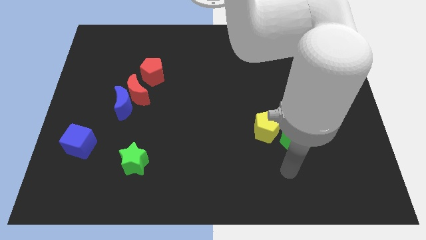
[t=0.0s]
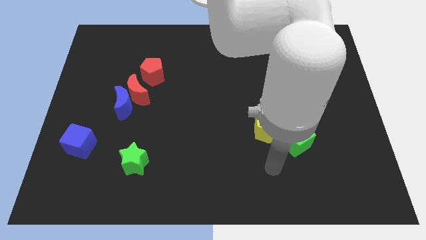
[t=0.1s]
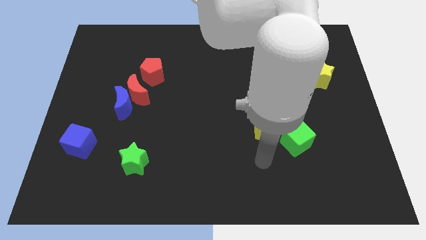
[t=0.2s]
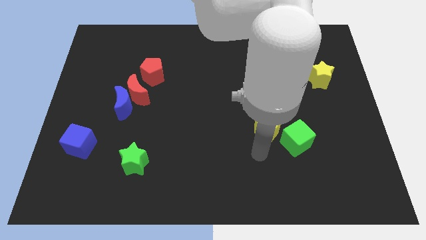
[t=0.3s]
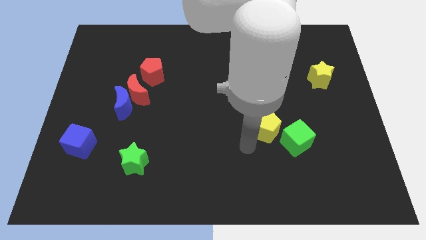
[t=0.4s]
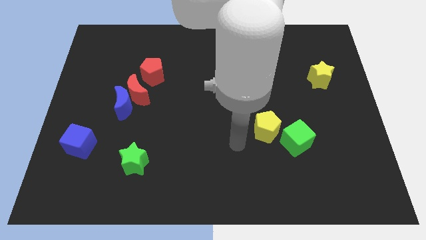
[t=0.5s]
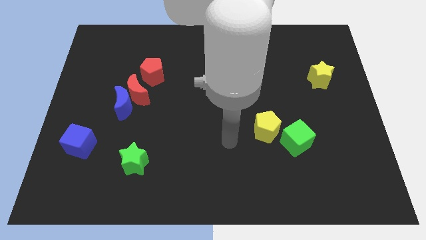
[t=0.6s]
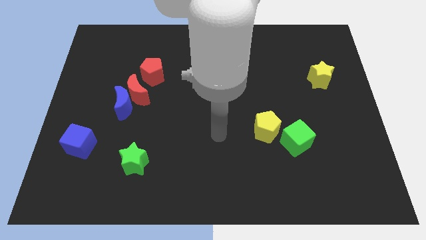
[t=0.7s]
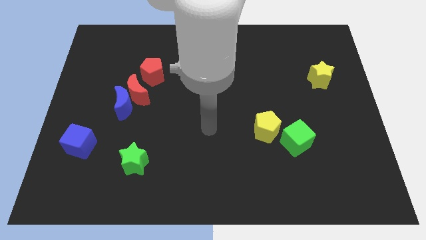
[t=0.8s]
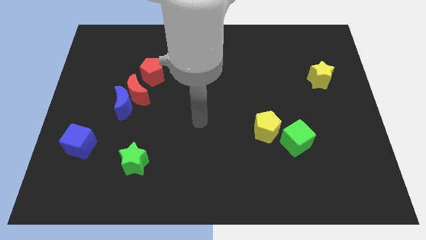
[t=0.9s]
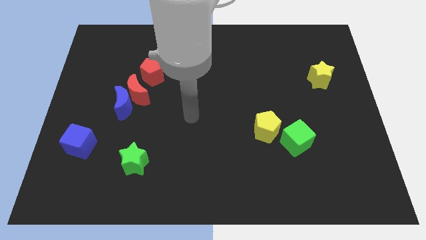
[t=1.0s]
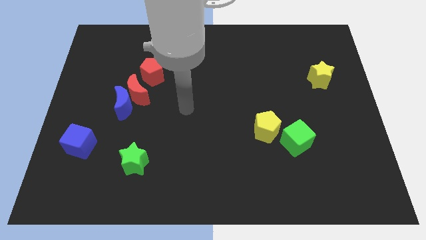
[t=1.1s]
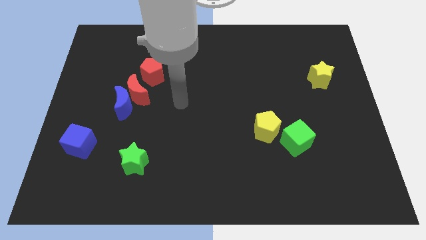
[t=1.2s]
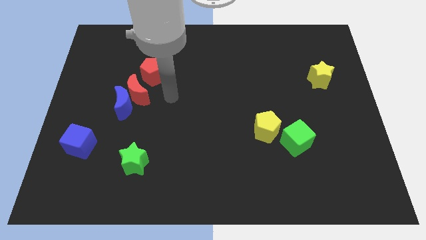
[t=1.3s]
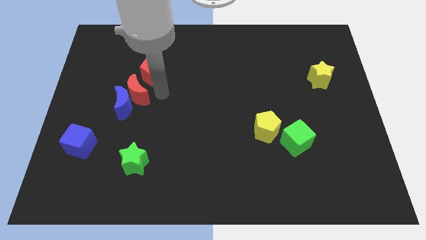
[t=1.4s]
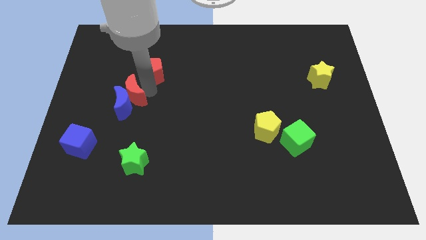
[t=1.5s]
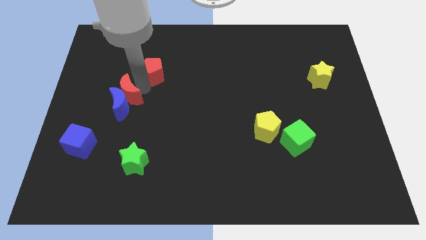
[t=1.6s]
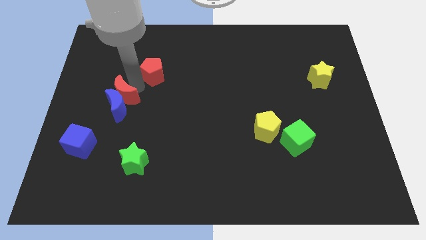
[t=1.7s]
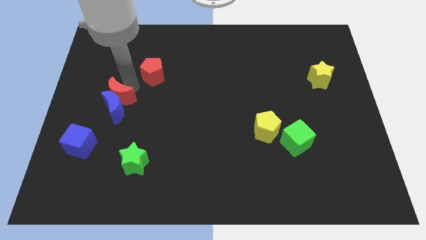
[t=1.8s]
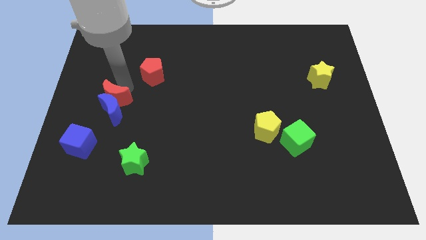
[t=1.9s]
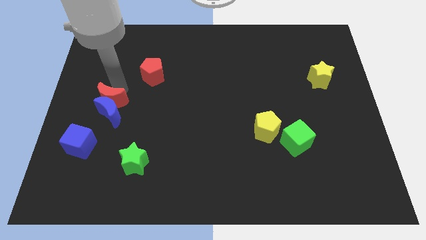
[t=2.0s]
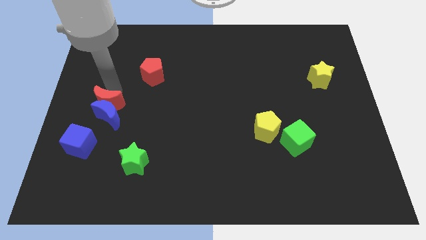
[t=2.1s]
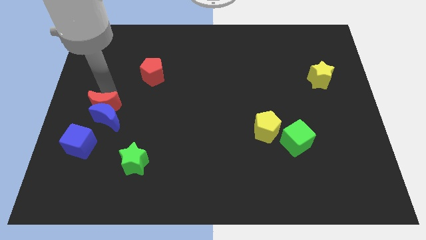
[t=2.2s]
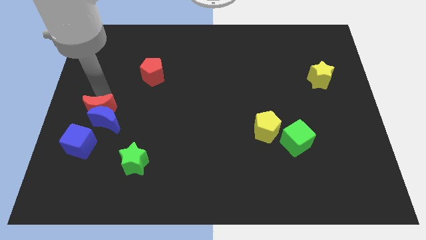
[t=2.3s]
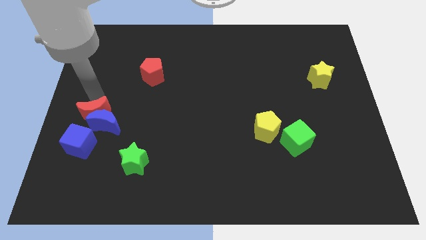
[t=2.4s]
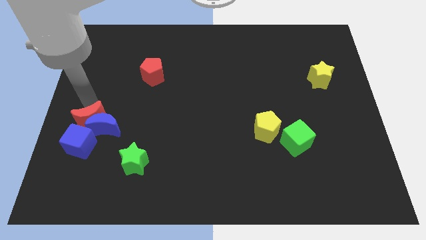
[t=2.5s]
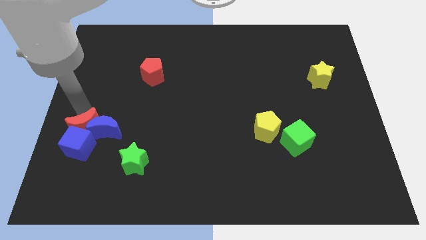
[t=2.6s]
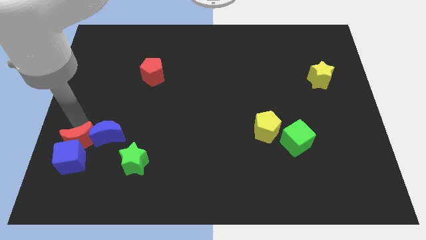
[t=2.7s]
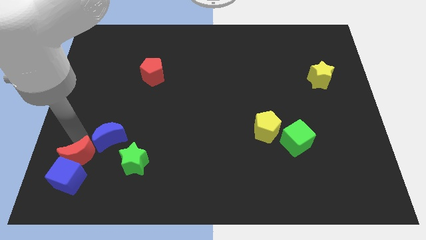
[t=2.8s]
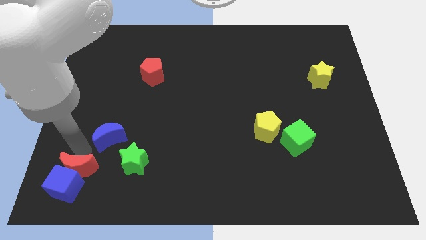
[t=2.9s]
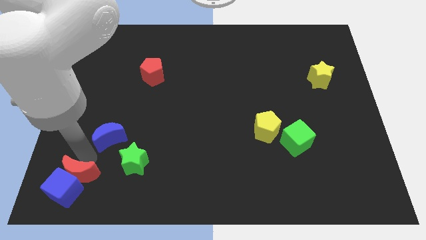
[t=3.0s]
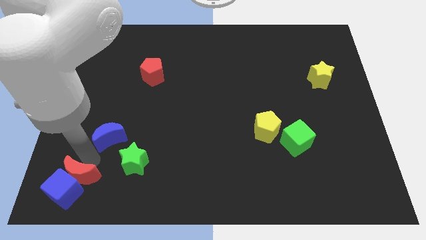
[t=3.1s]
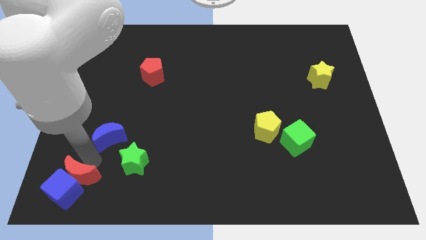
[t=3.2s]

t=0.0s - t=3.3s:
move the blue moon away from the red moon

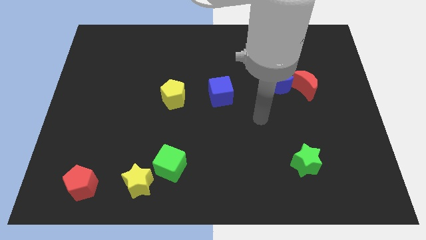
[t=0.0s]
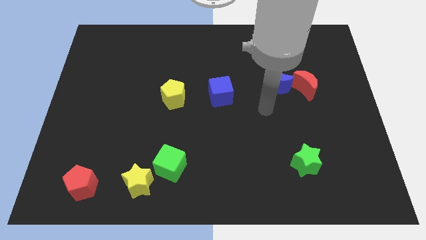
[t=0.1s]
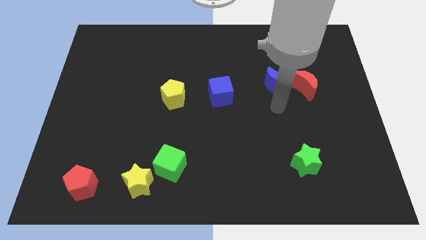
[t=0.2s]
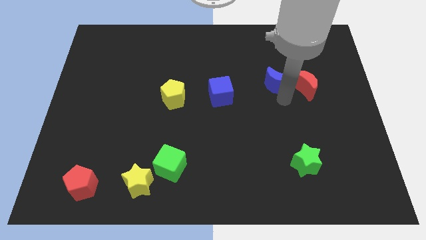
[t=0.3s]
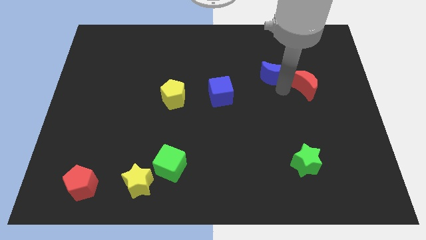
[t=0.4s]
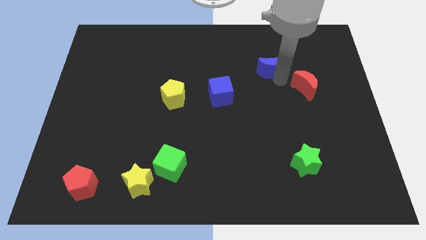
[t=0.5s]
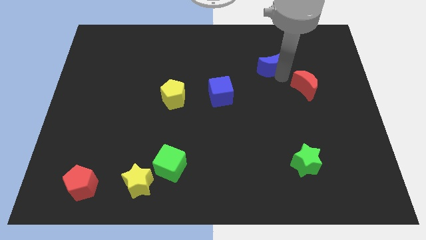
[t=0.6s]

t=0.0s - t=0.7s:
move the red moon away from the blue moon

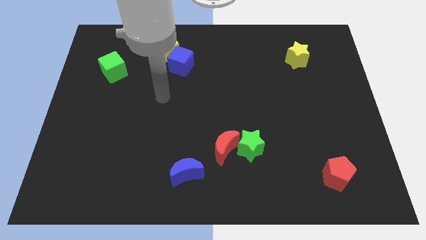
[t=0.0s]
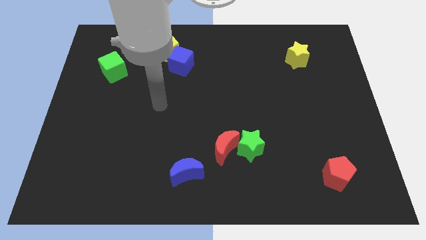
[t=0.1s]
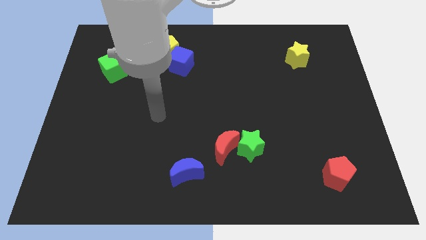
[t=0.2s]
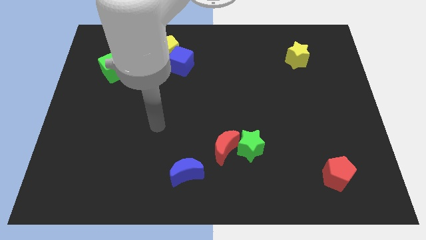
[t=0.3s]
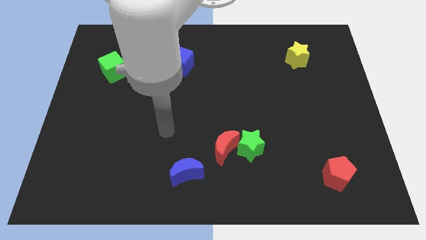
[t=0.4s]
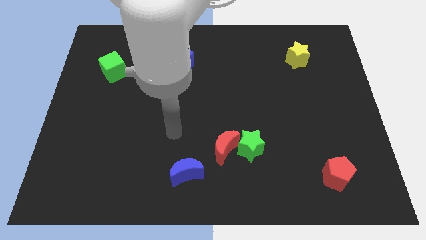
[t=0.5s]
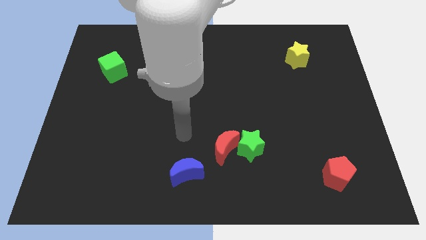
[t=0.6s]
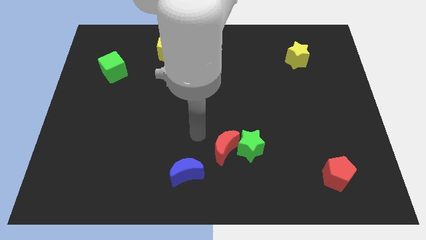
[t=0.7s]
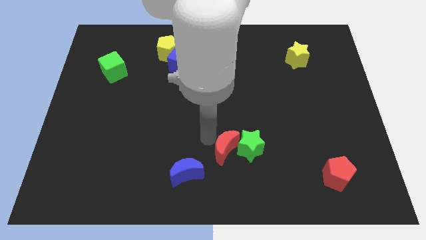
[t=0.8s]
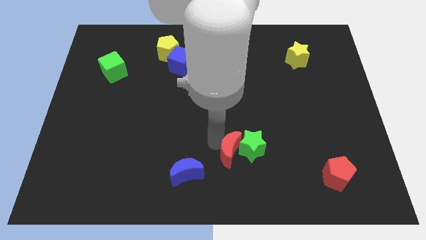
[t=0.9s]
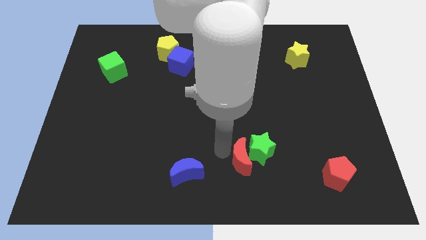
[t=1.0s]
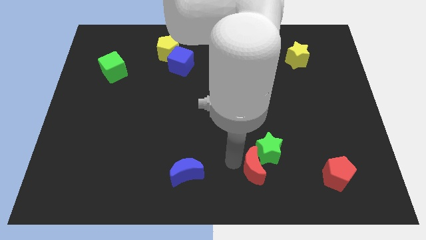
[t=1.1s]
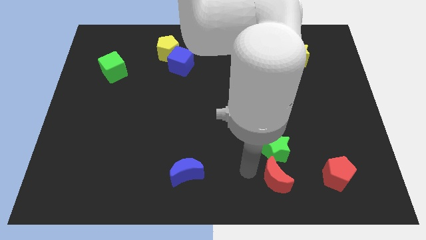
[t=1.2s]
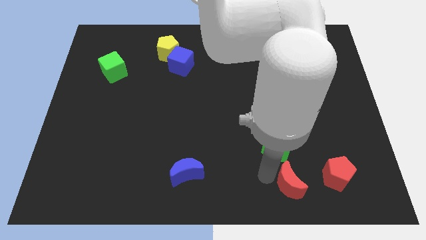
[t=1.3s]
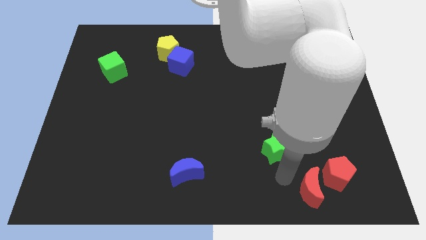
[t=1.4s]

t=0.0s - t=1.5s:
pull the green star apart from the red moon

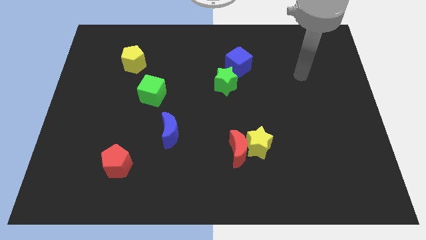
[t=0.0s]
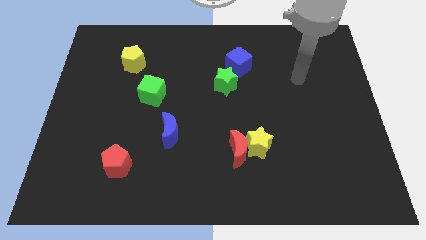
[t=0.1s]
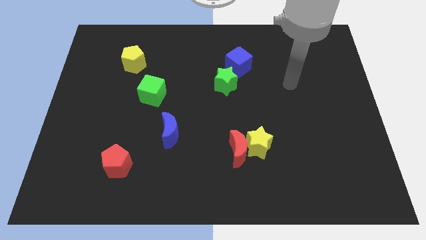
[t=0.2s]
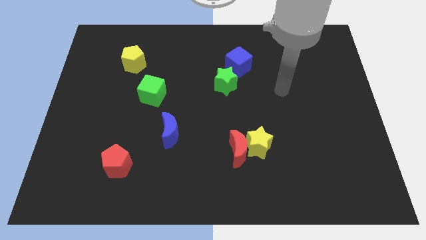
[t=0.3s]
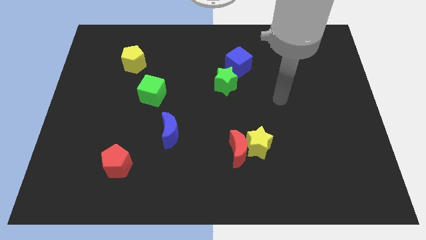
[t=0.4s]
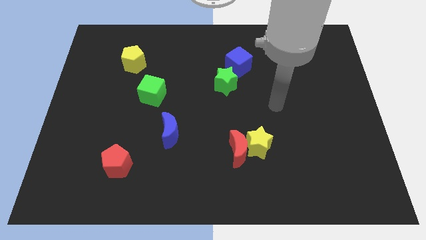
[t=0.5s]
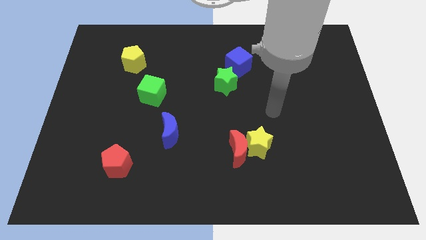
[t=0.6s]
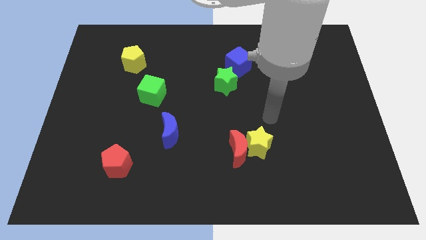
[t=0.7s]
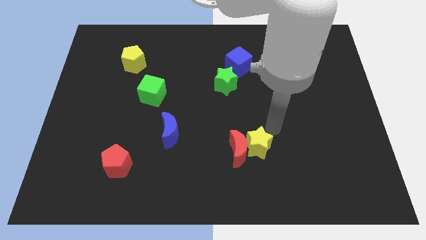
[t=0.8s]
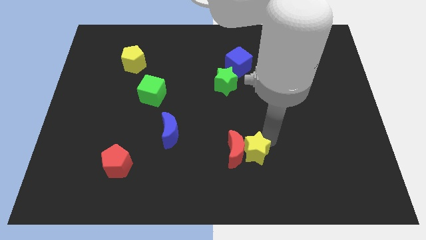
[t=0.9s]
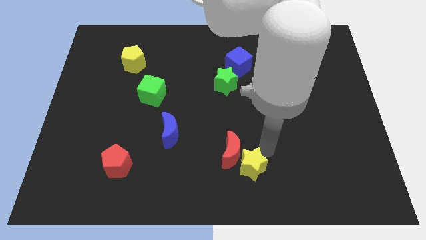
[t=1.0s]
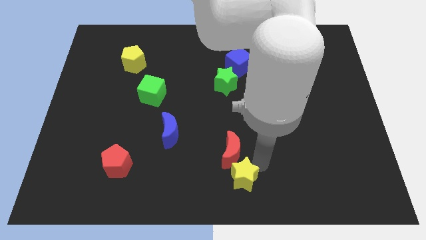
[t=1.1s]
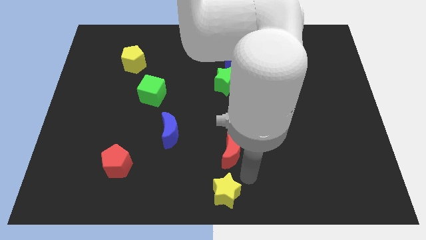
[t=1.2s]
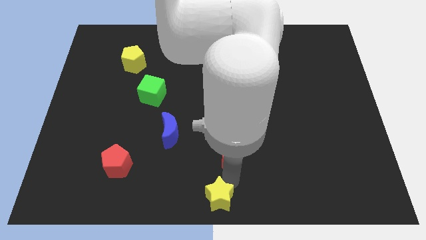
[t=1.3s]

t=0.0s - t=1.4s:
separate the red moon from the yellow star

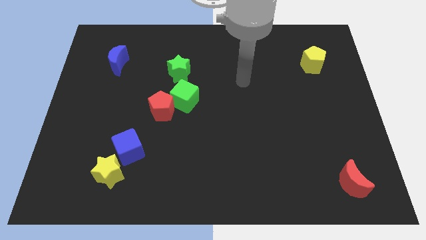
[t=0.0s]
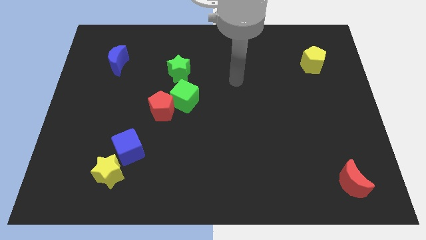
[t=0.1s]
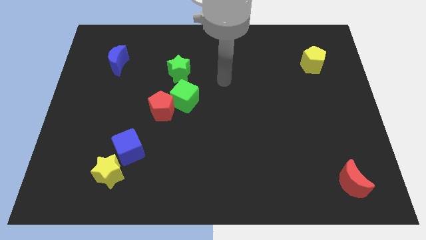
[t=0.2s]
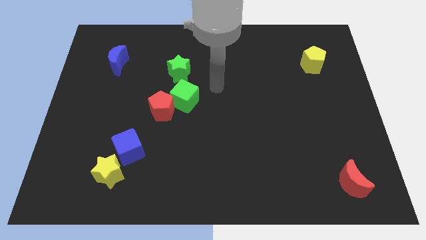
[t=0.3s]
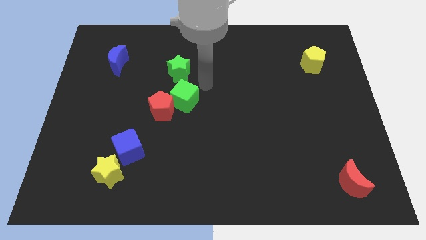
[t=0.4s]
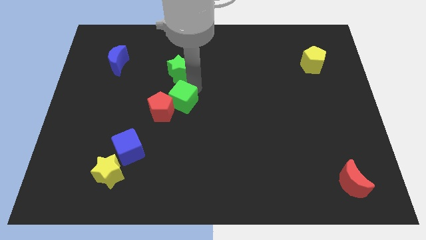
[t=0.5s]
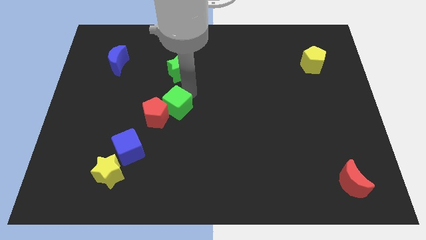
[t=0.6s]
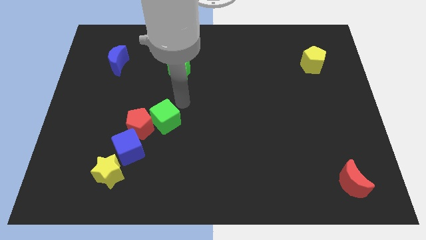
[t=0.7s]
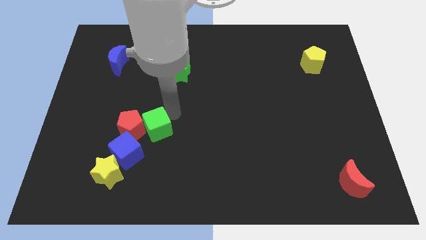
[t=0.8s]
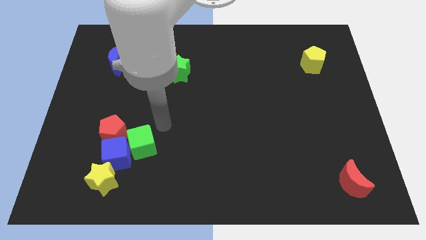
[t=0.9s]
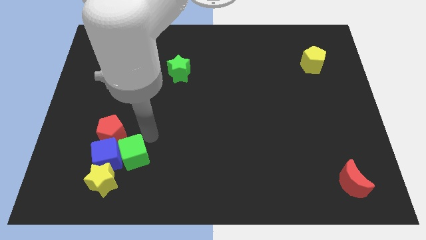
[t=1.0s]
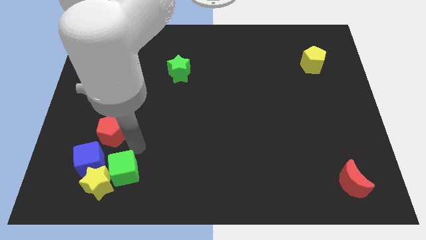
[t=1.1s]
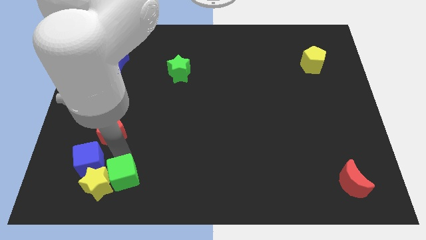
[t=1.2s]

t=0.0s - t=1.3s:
move the red pentagon away from the green cube

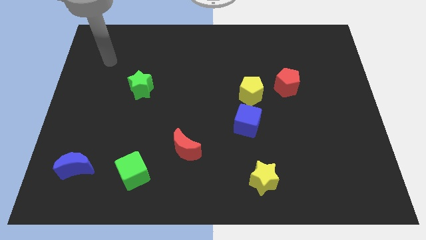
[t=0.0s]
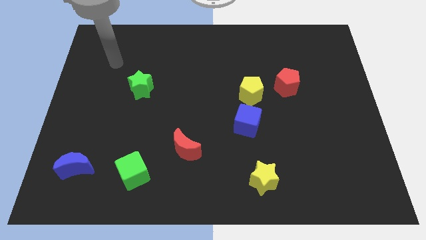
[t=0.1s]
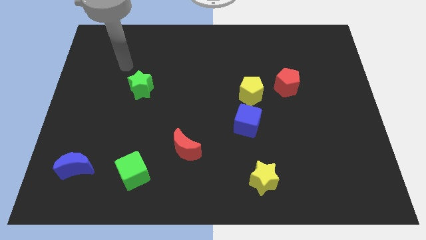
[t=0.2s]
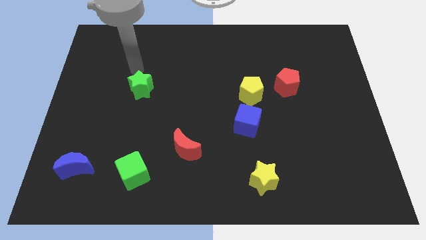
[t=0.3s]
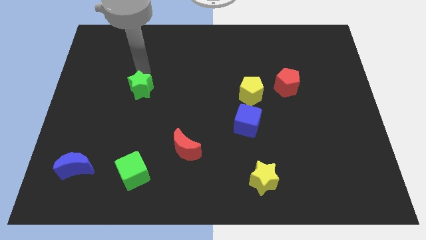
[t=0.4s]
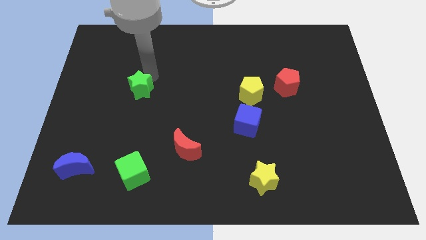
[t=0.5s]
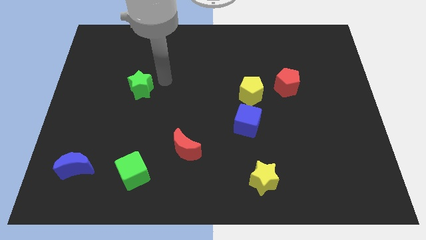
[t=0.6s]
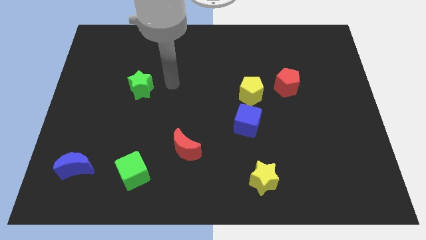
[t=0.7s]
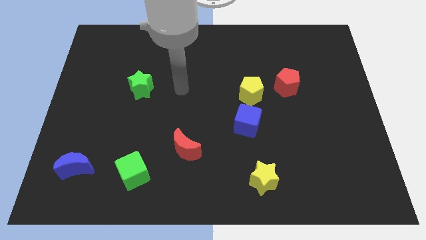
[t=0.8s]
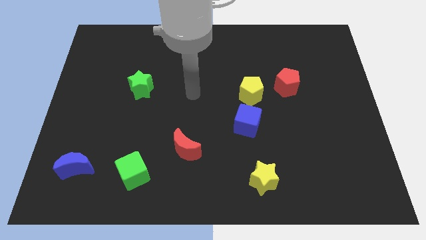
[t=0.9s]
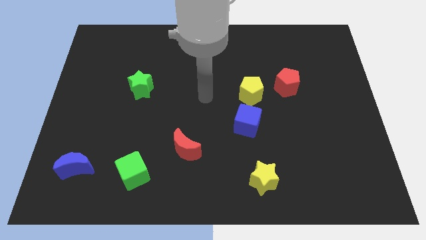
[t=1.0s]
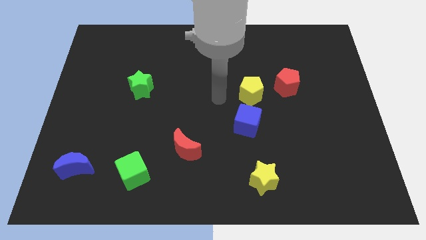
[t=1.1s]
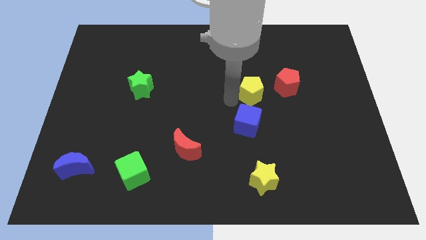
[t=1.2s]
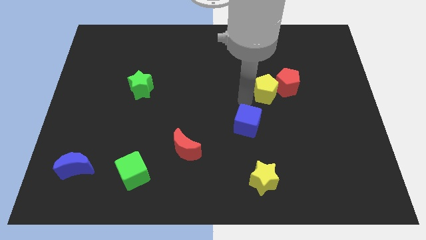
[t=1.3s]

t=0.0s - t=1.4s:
separate the blue cube from the yellow pentagon
